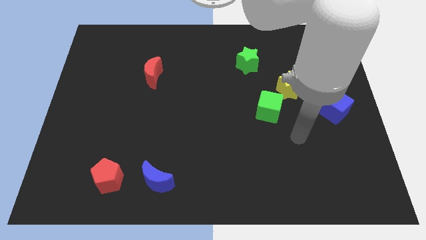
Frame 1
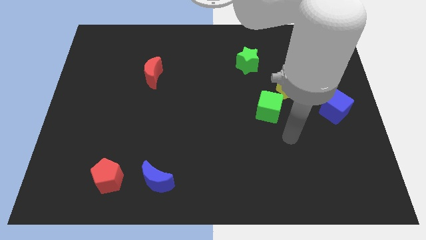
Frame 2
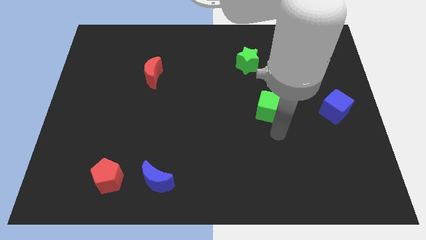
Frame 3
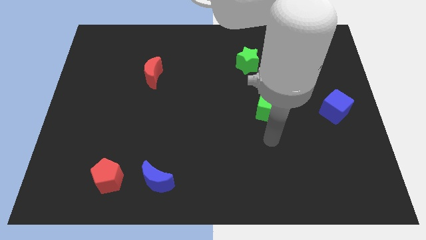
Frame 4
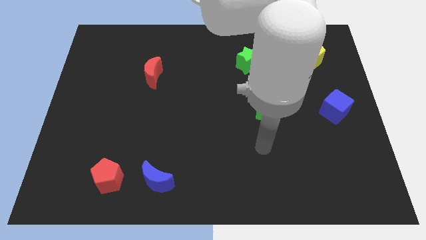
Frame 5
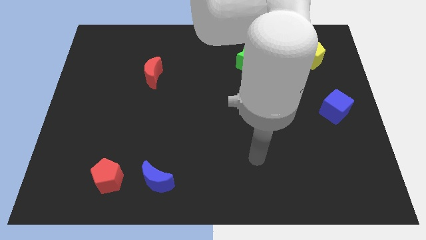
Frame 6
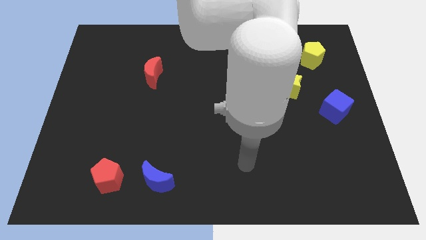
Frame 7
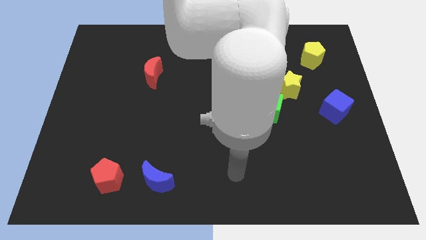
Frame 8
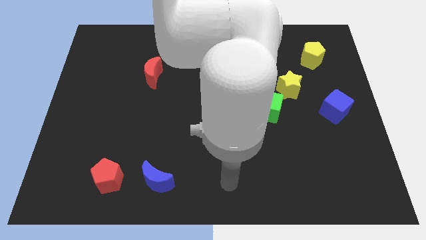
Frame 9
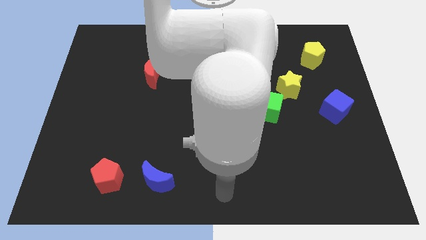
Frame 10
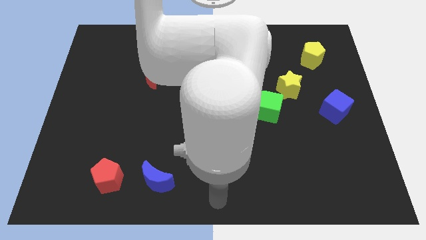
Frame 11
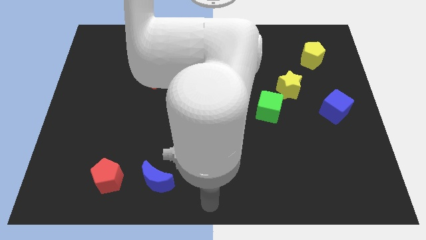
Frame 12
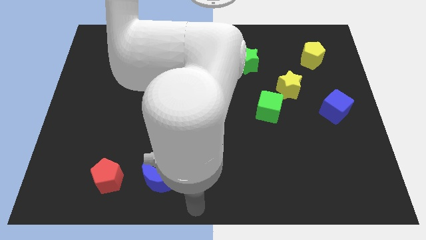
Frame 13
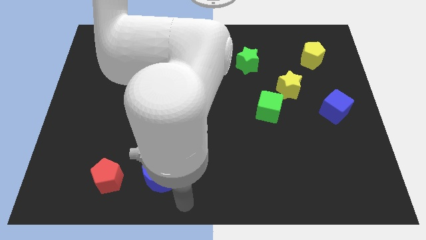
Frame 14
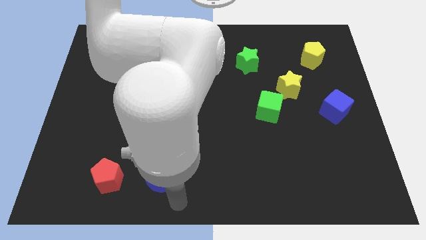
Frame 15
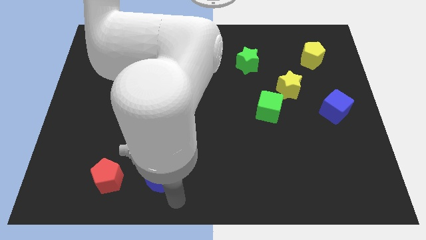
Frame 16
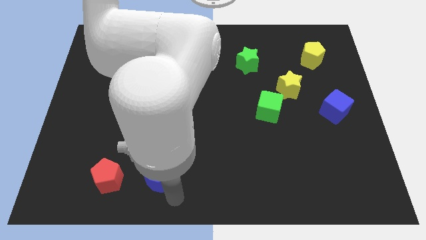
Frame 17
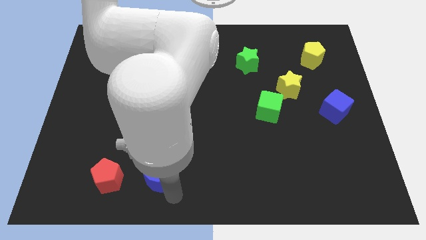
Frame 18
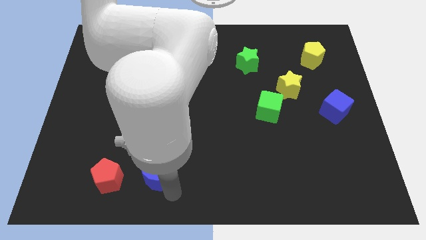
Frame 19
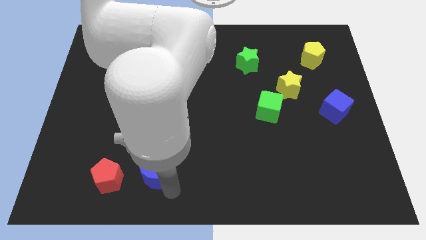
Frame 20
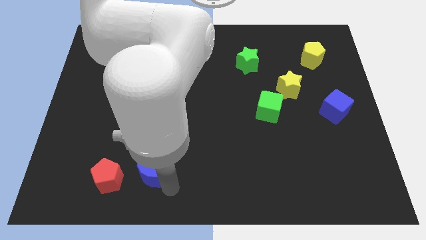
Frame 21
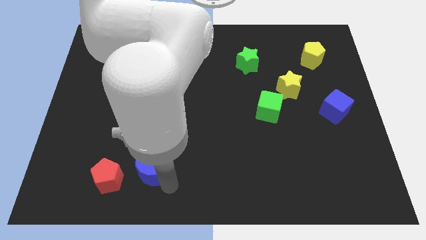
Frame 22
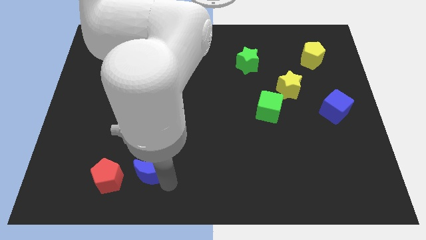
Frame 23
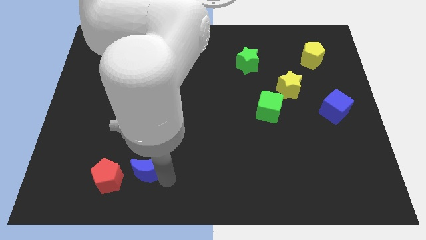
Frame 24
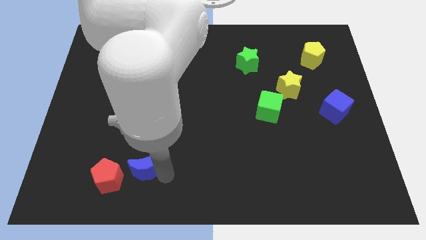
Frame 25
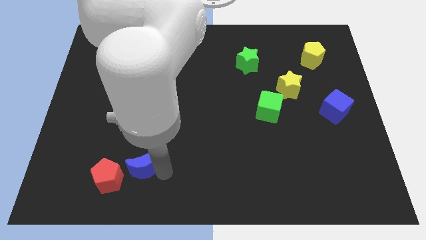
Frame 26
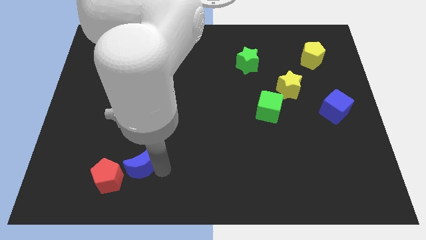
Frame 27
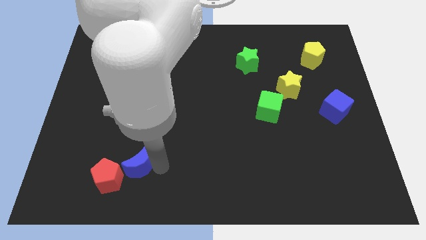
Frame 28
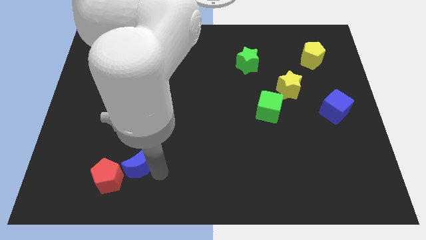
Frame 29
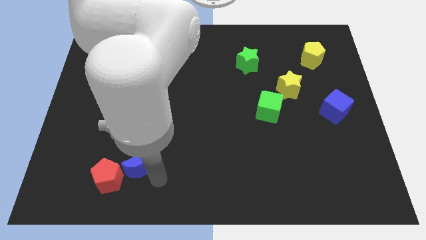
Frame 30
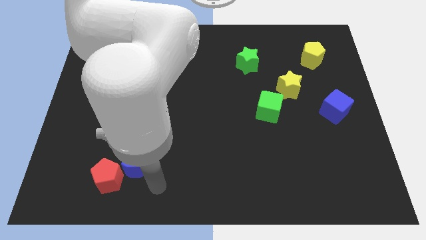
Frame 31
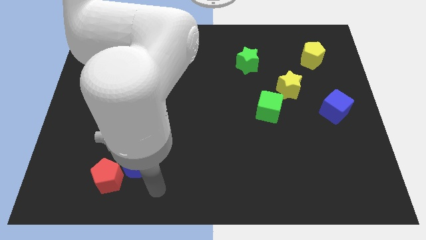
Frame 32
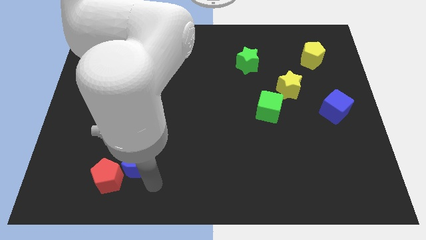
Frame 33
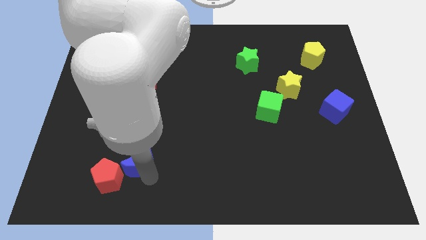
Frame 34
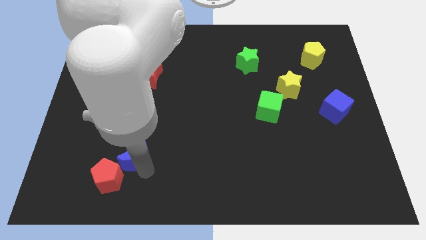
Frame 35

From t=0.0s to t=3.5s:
move the blue moon up and to the left diagonally a little

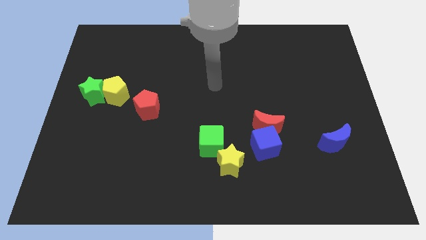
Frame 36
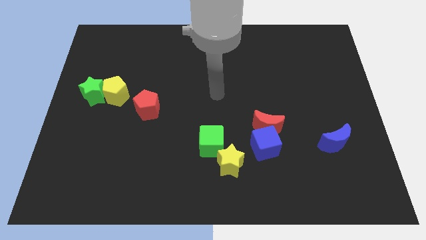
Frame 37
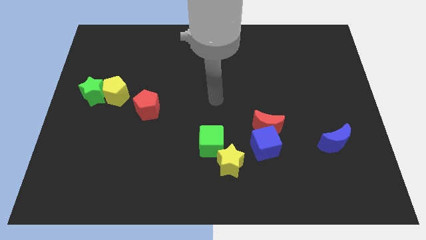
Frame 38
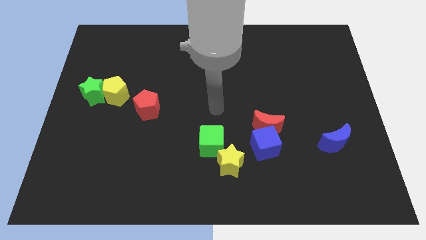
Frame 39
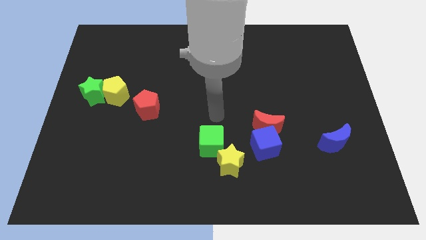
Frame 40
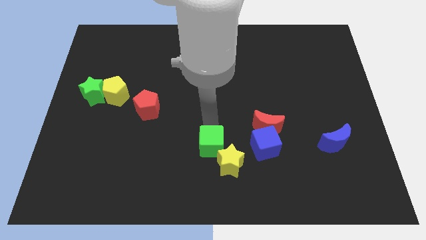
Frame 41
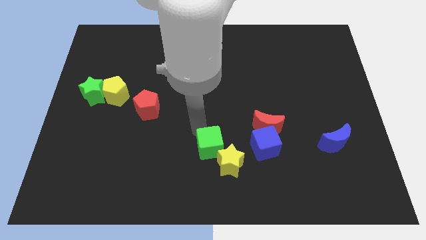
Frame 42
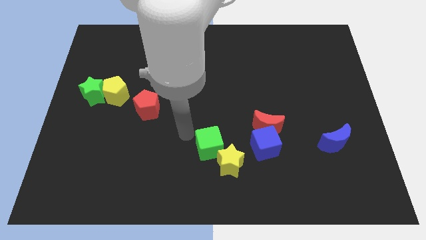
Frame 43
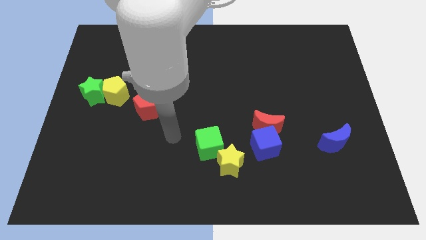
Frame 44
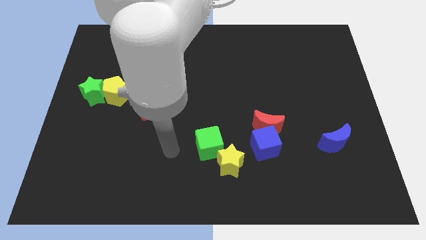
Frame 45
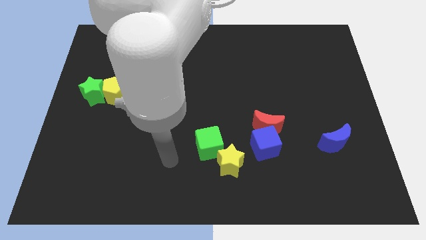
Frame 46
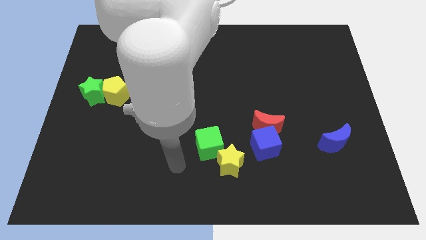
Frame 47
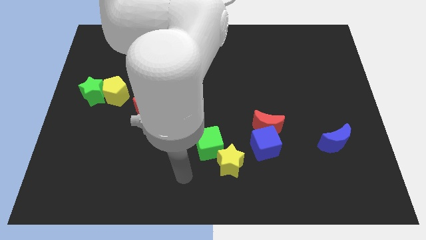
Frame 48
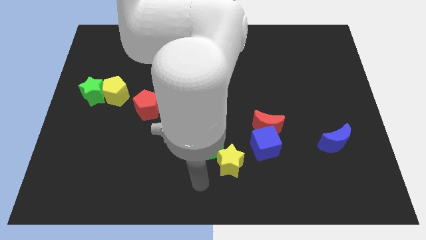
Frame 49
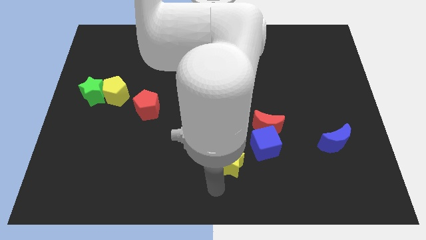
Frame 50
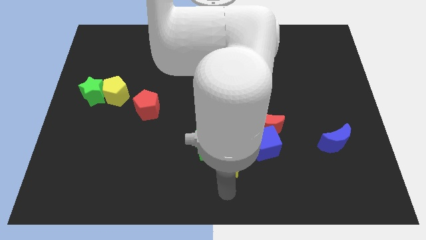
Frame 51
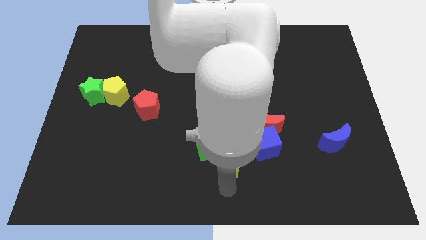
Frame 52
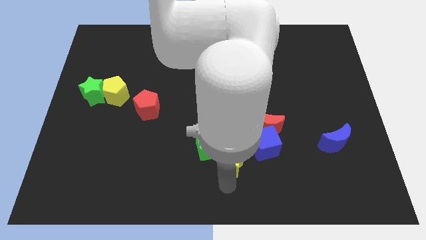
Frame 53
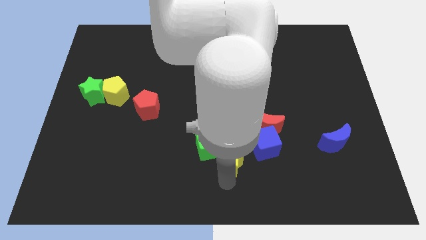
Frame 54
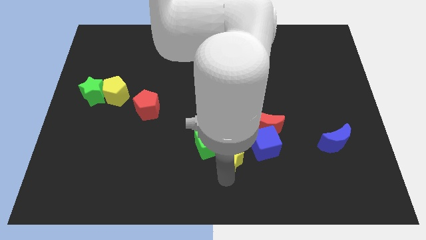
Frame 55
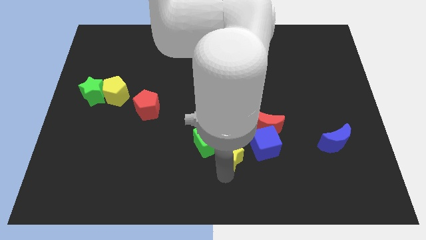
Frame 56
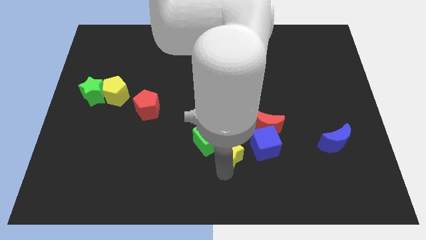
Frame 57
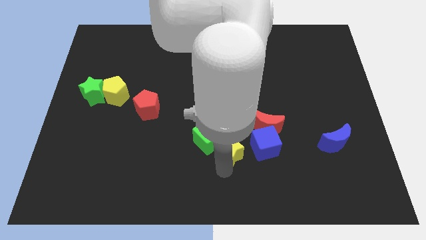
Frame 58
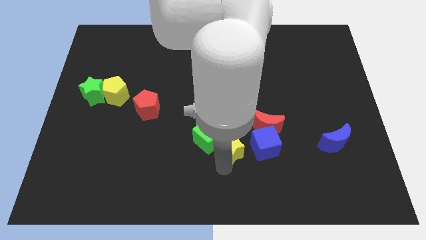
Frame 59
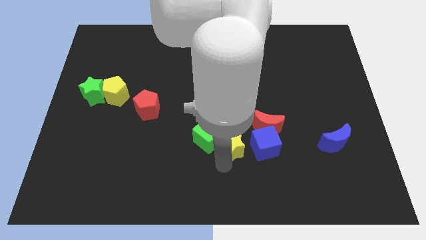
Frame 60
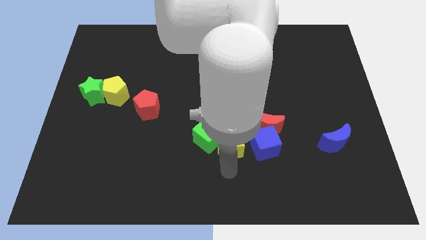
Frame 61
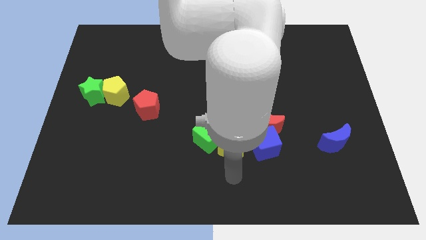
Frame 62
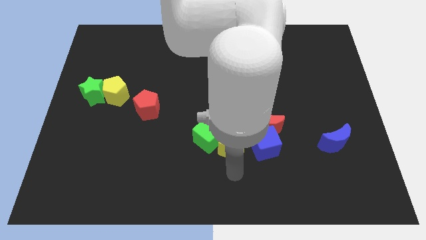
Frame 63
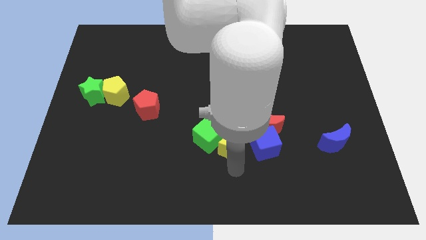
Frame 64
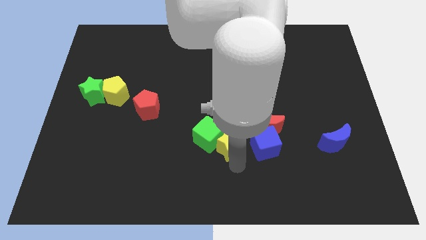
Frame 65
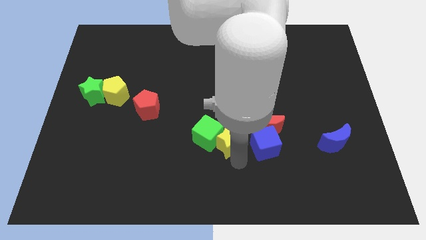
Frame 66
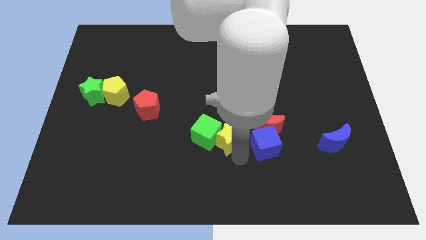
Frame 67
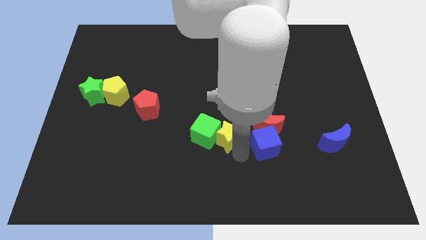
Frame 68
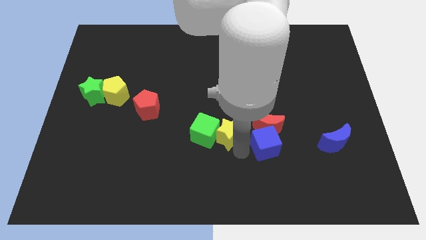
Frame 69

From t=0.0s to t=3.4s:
slide the yellow star upwards a bit

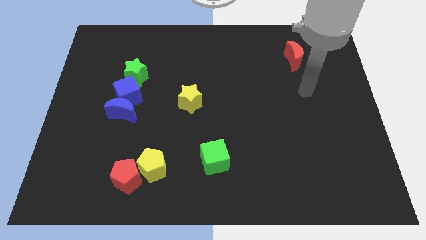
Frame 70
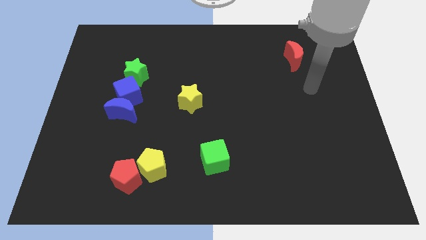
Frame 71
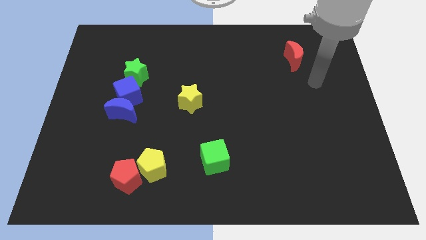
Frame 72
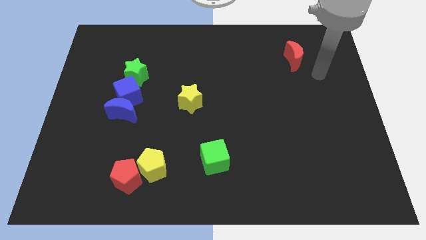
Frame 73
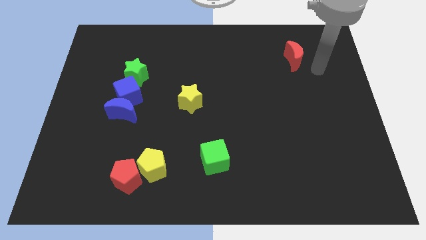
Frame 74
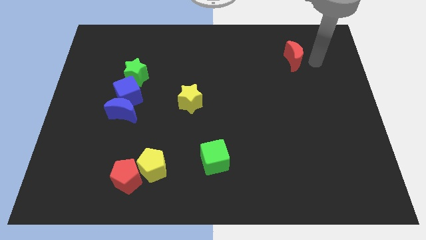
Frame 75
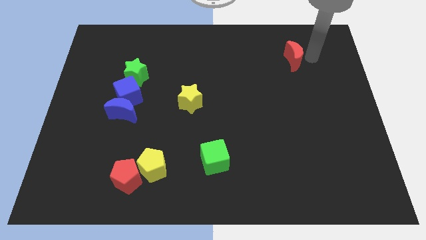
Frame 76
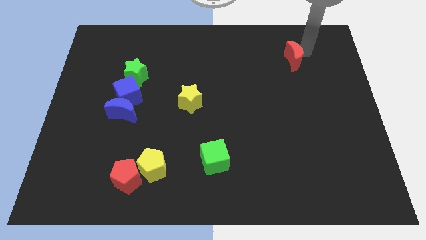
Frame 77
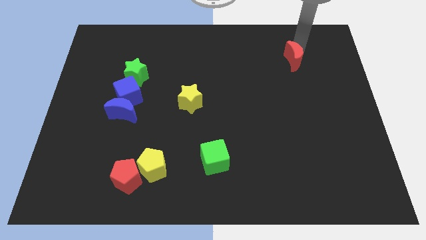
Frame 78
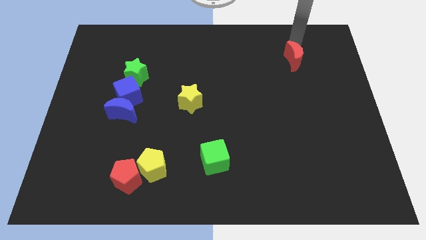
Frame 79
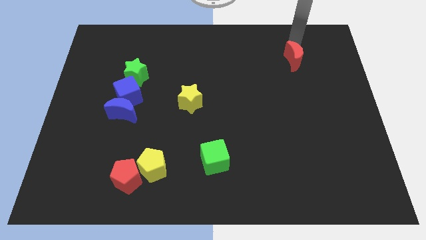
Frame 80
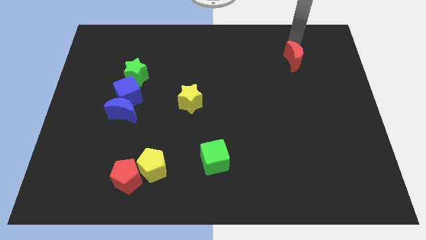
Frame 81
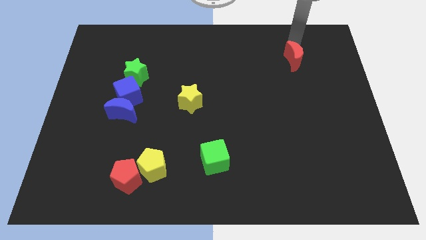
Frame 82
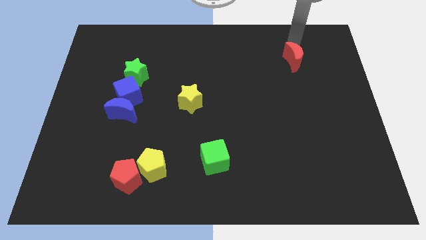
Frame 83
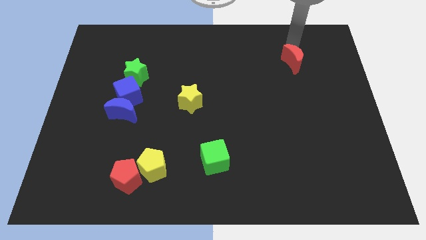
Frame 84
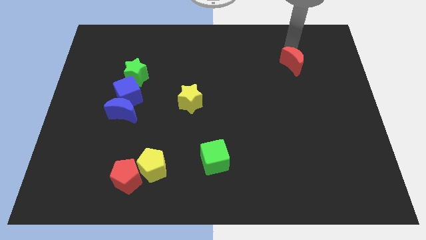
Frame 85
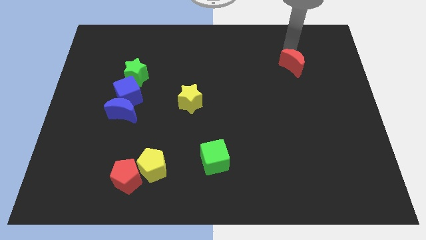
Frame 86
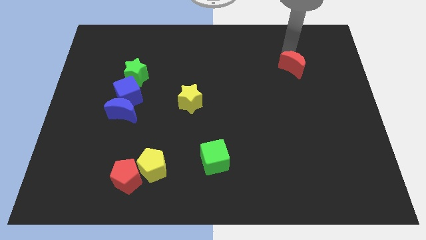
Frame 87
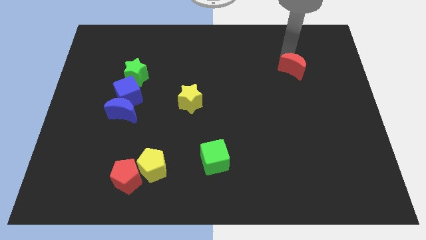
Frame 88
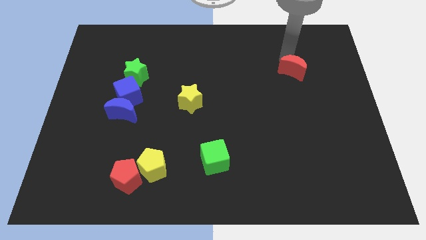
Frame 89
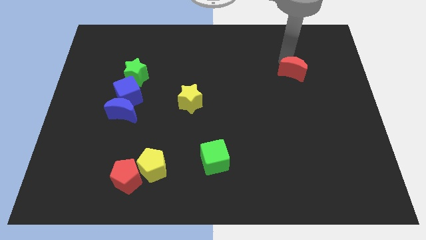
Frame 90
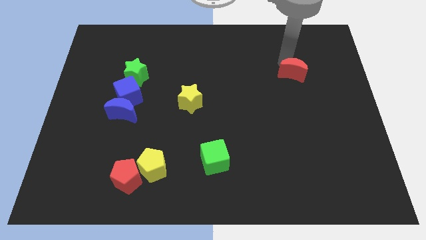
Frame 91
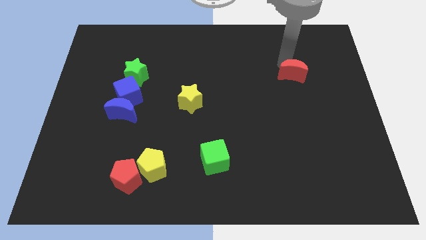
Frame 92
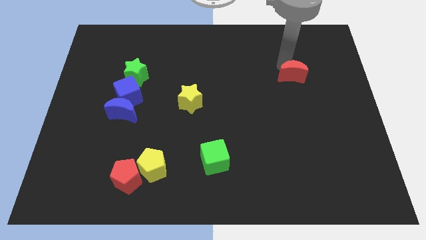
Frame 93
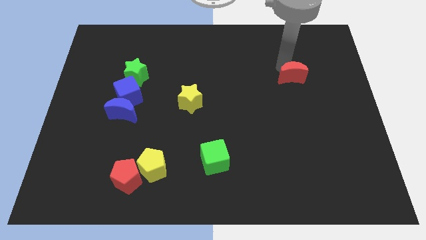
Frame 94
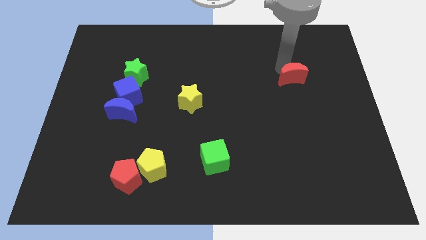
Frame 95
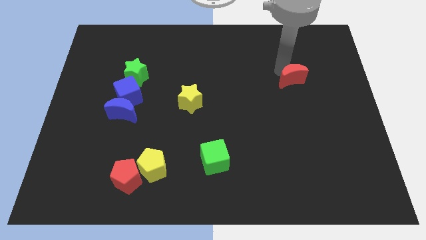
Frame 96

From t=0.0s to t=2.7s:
slightly push the red moon down
